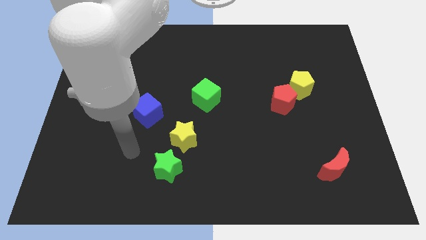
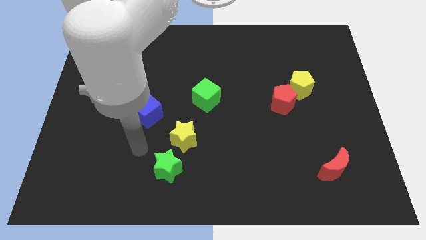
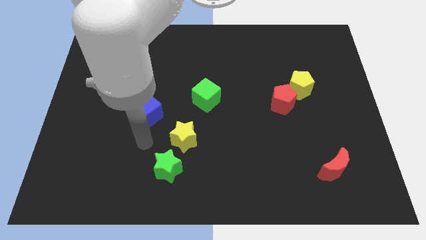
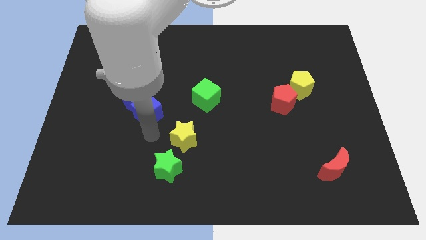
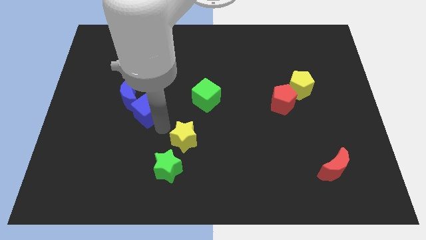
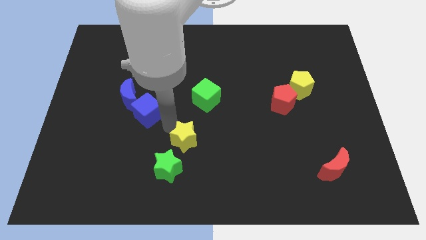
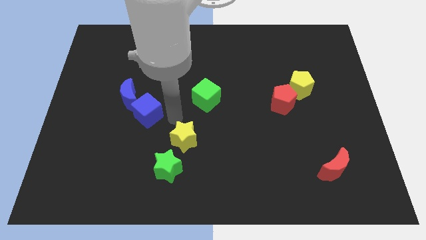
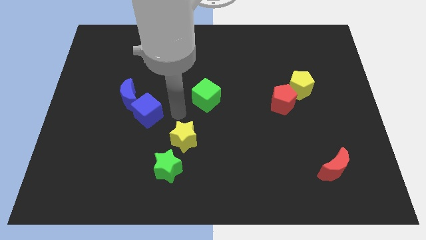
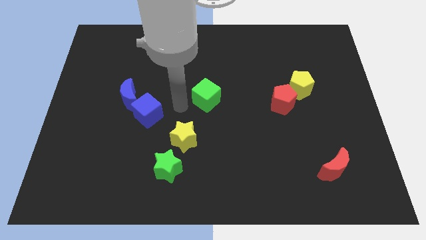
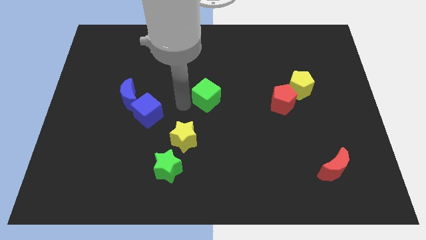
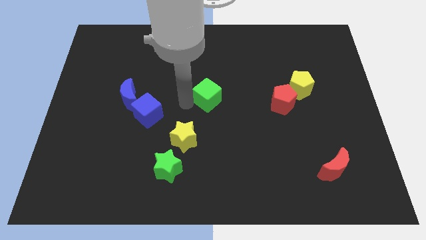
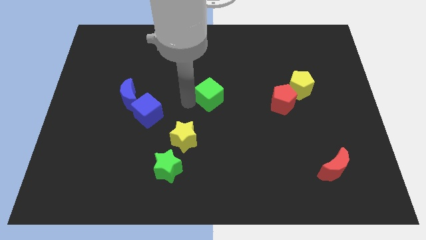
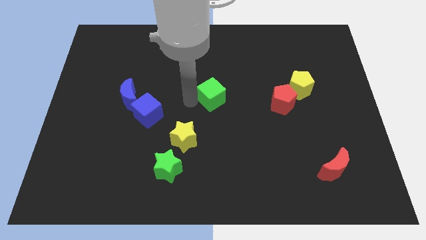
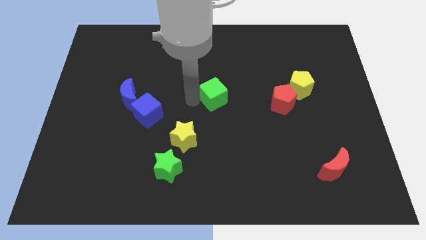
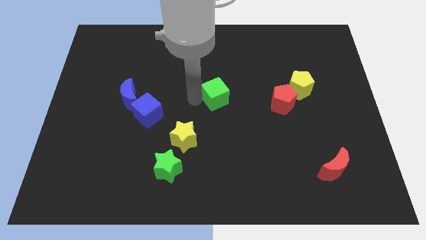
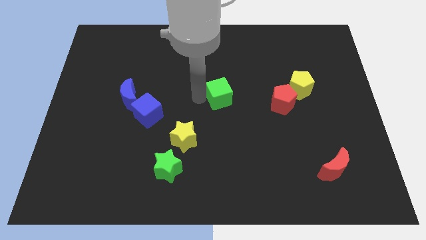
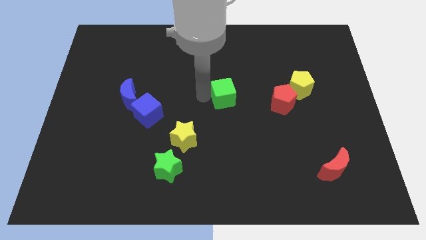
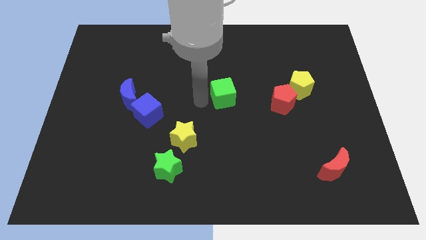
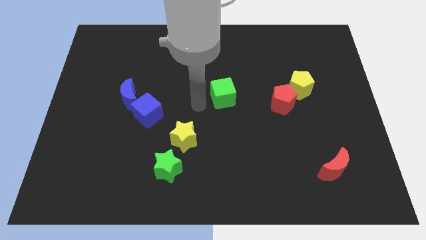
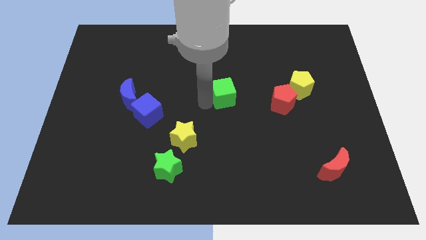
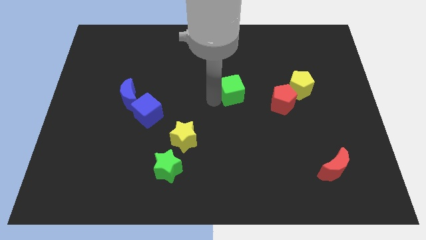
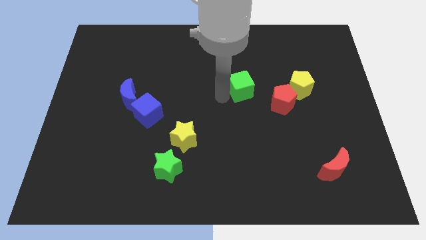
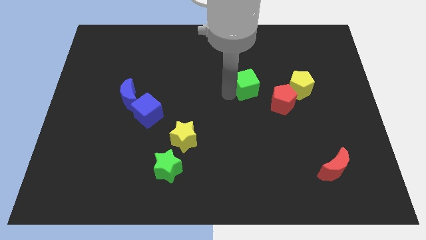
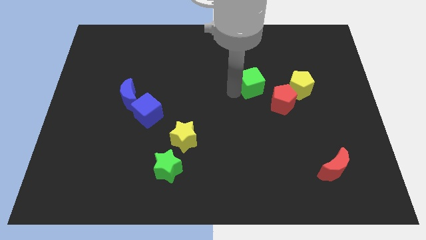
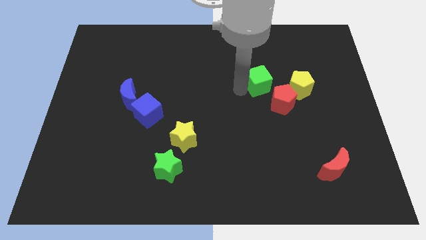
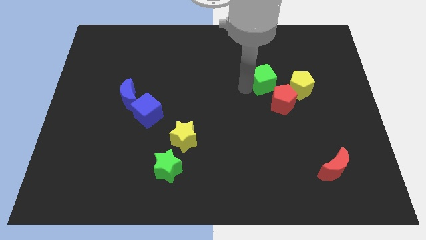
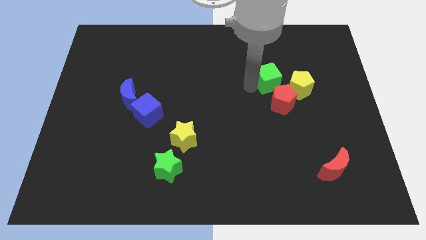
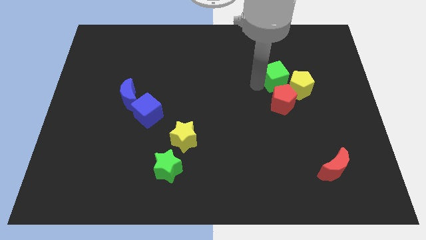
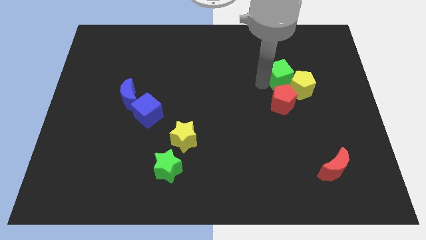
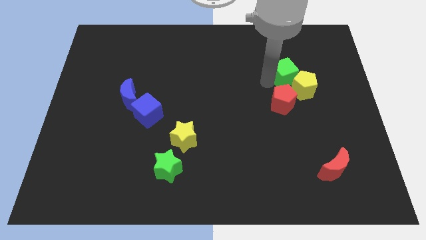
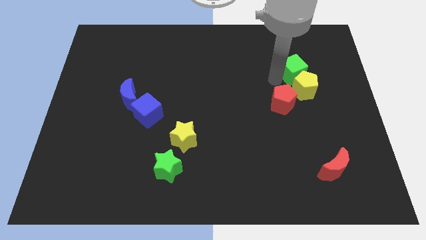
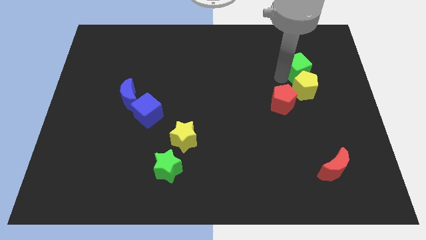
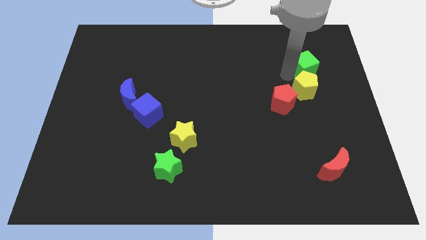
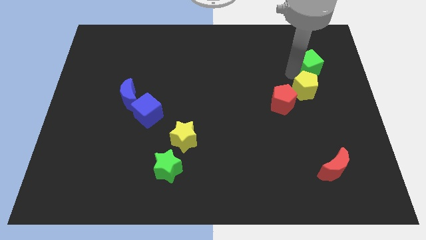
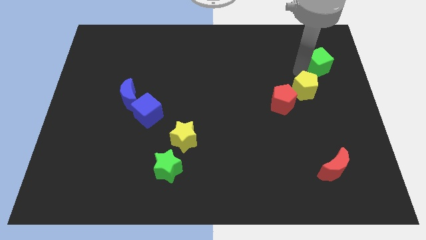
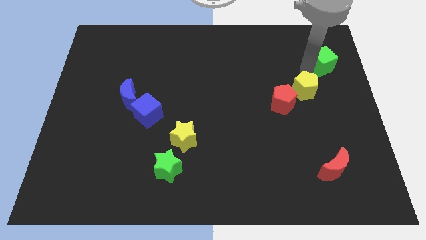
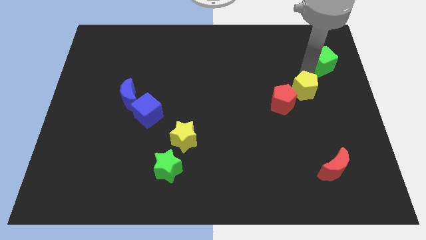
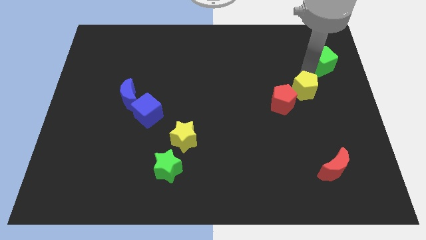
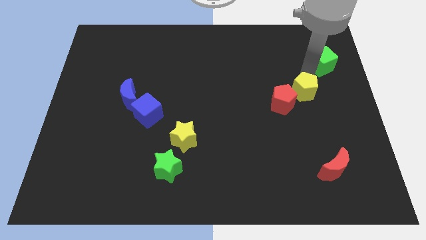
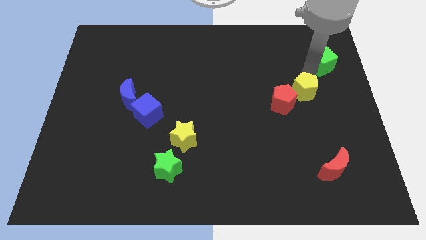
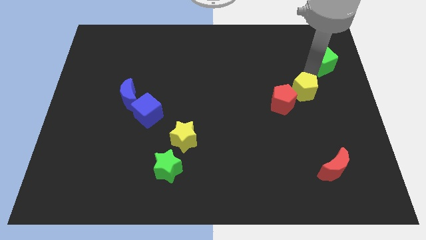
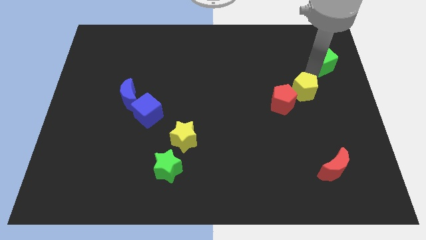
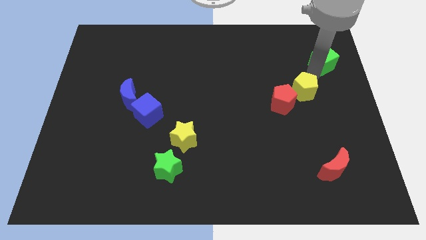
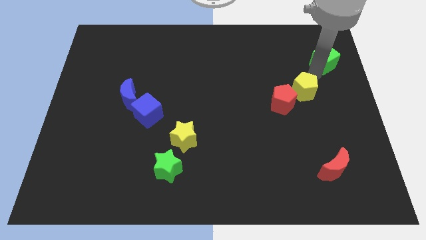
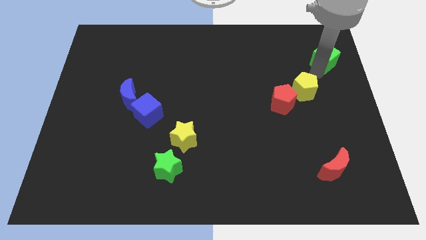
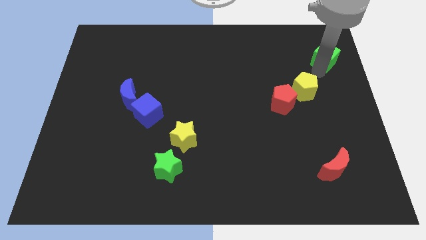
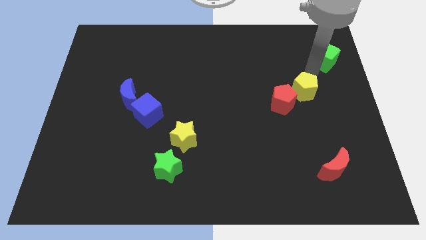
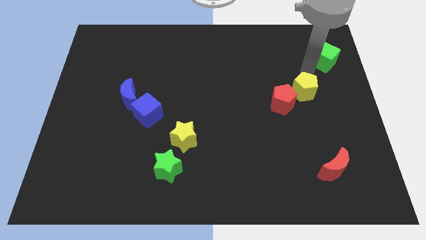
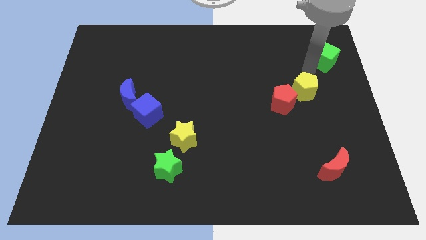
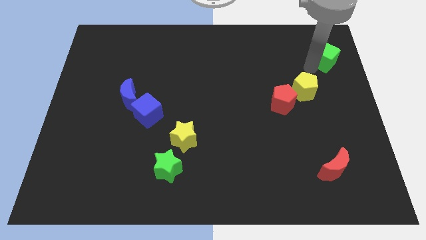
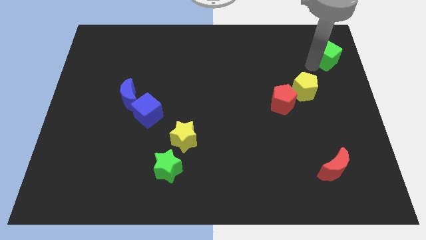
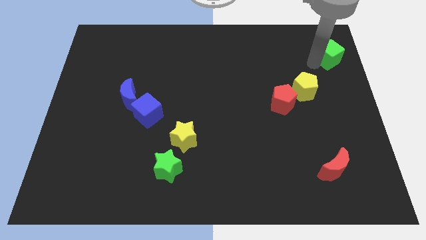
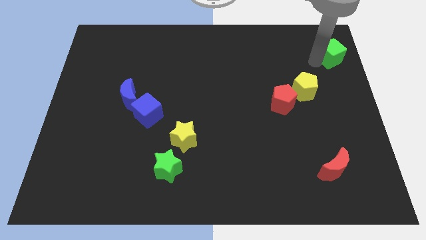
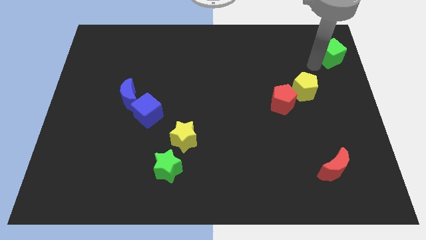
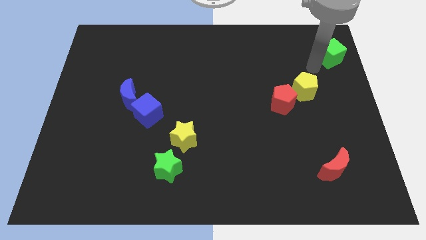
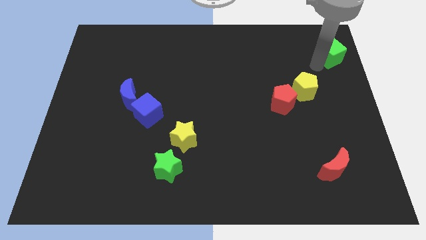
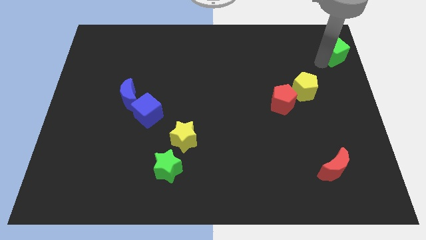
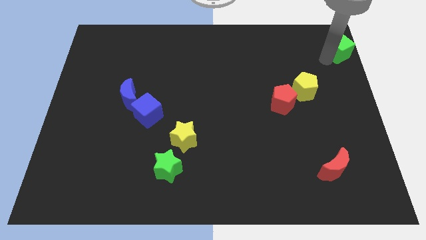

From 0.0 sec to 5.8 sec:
push the green cube to the top right of the board

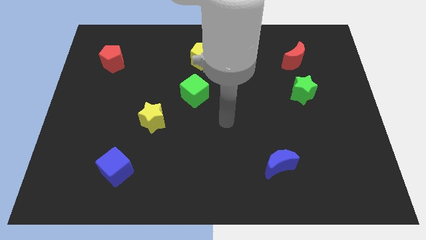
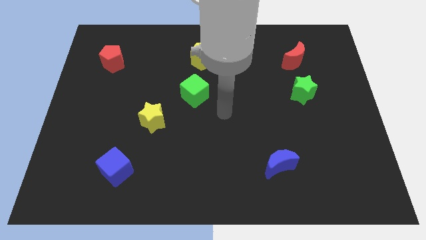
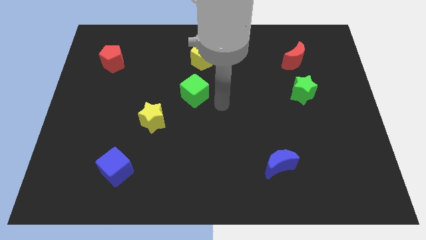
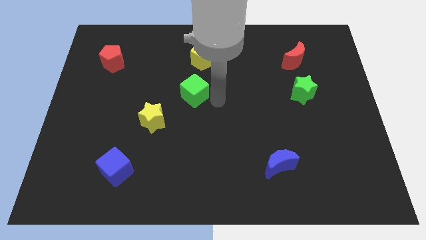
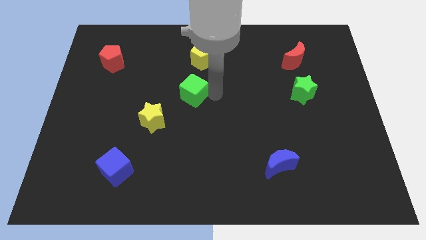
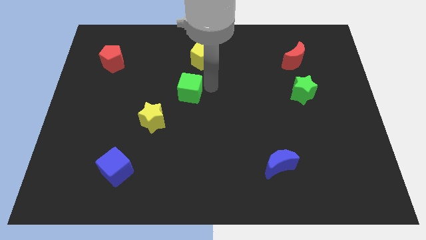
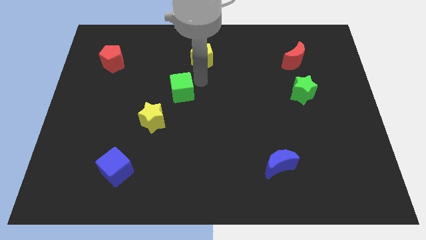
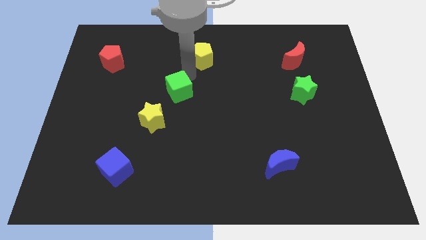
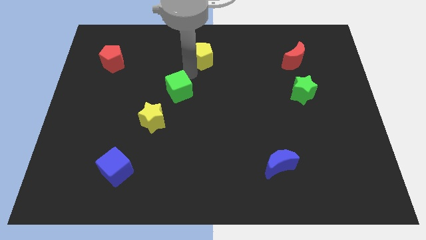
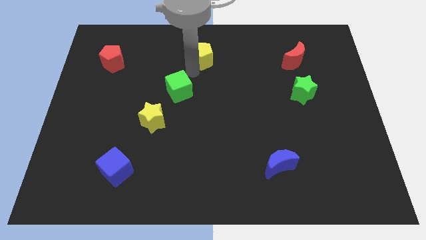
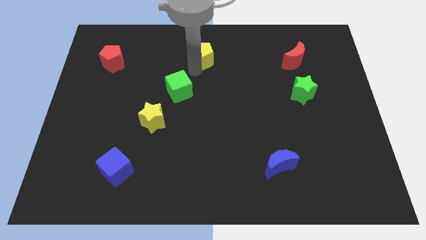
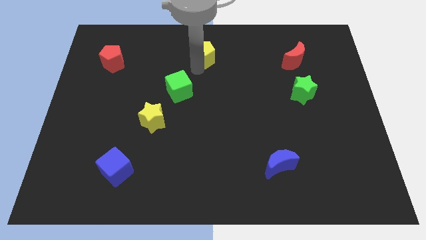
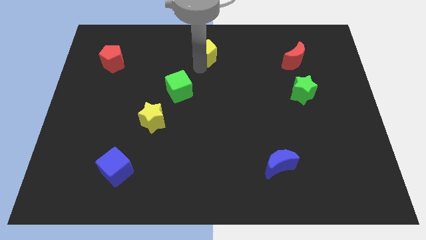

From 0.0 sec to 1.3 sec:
push the yellow pentagon to the top
